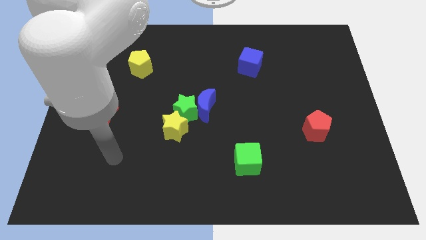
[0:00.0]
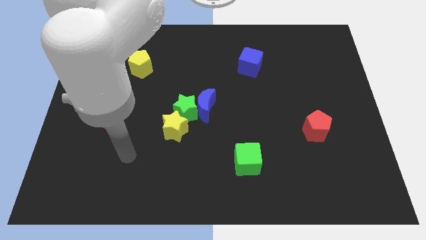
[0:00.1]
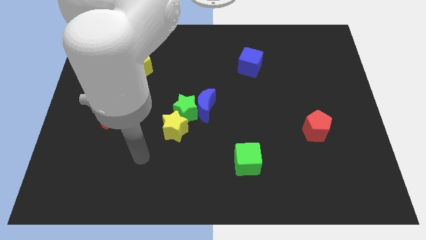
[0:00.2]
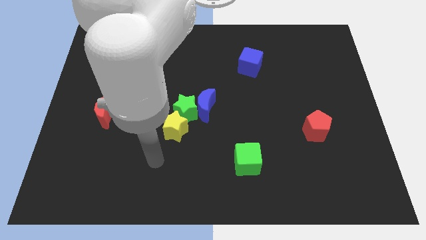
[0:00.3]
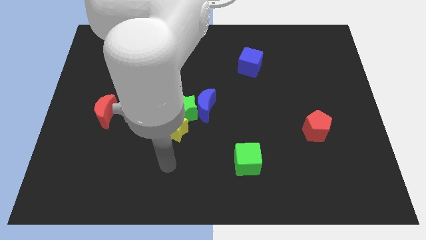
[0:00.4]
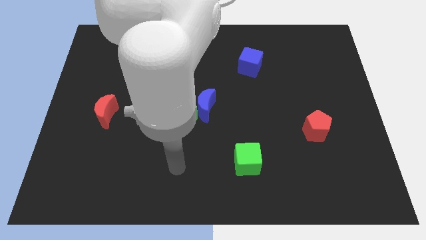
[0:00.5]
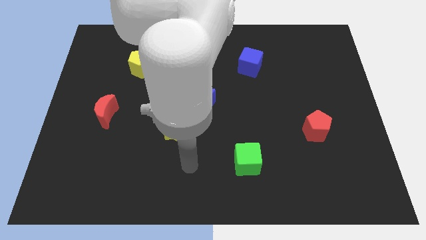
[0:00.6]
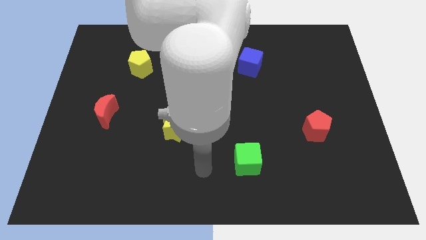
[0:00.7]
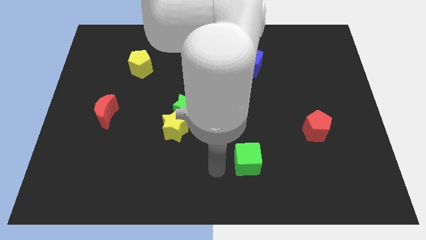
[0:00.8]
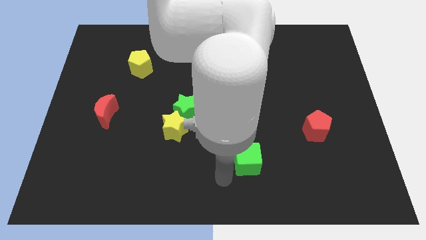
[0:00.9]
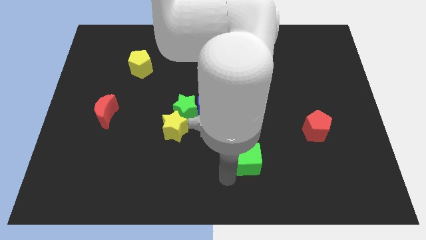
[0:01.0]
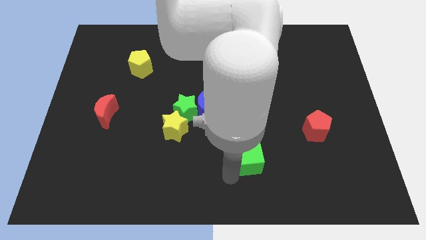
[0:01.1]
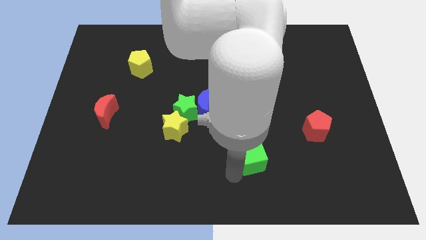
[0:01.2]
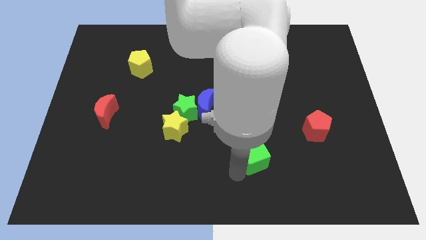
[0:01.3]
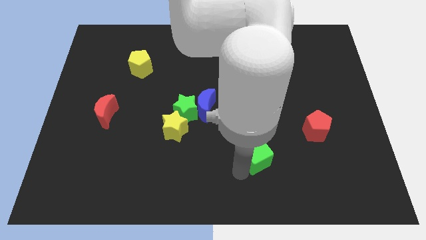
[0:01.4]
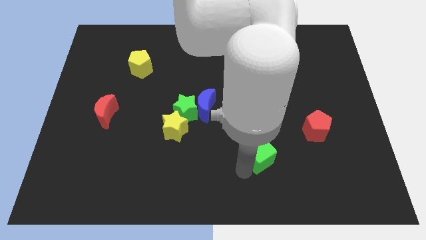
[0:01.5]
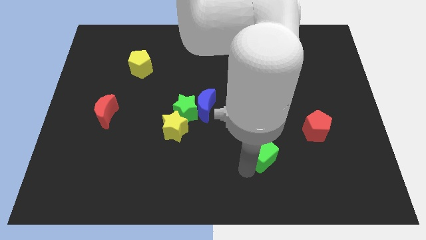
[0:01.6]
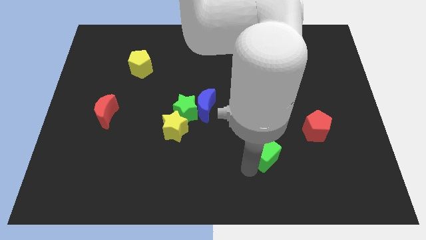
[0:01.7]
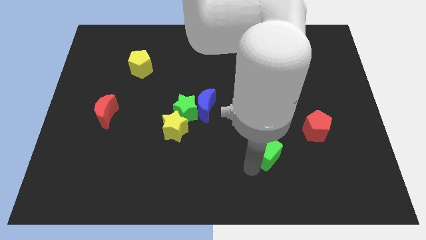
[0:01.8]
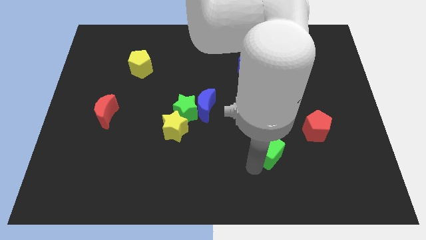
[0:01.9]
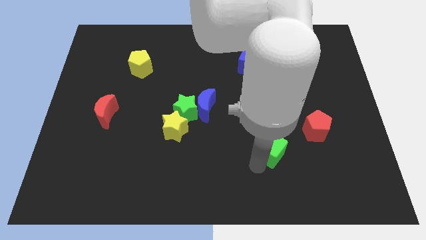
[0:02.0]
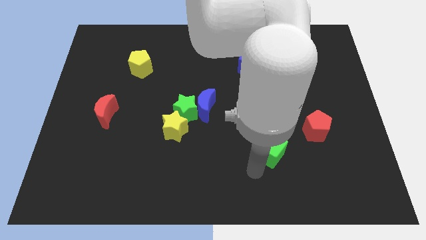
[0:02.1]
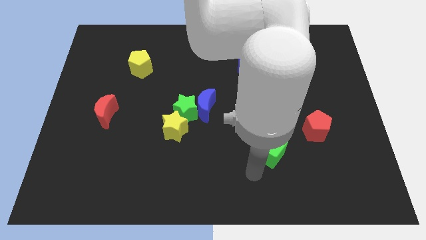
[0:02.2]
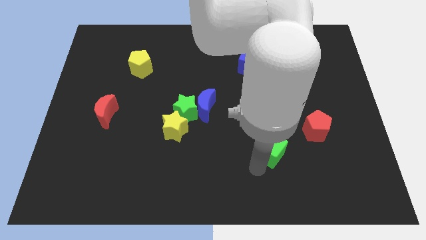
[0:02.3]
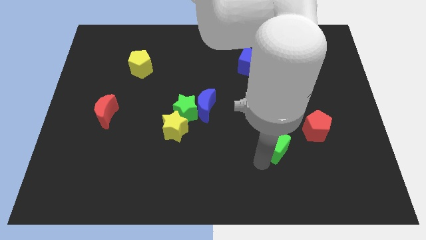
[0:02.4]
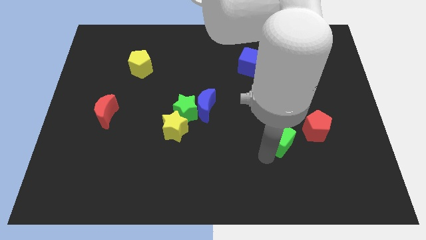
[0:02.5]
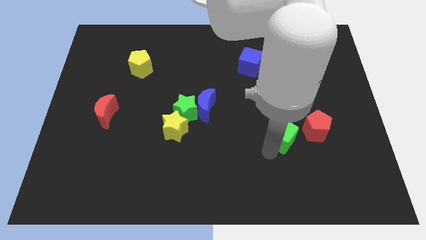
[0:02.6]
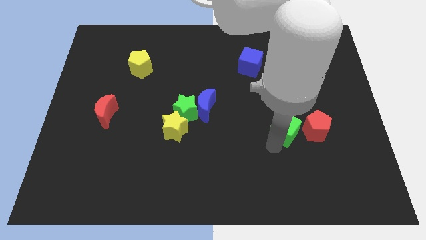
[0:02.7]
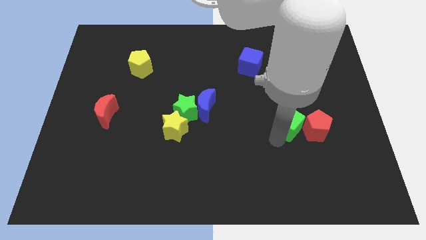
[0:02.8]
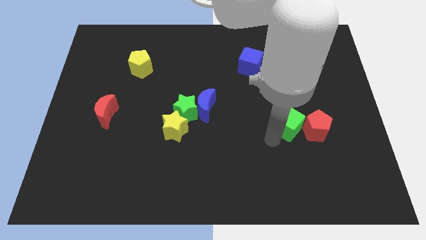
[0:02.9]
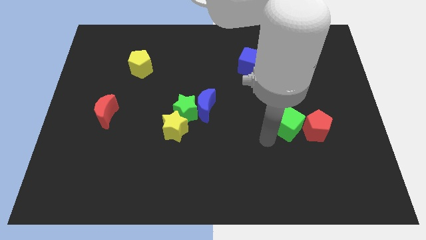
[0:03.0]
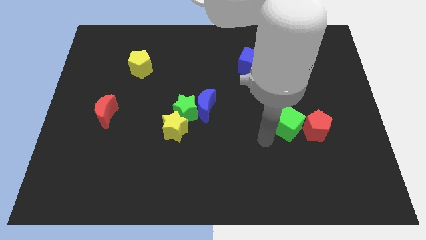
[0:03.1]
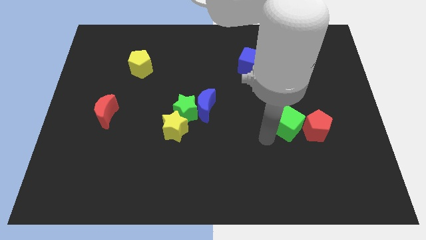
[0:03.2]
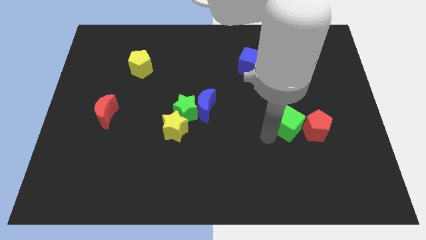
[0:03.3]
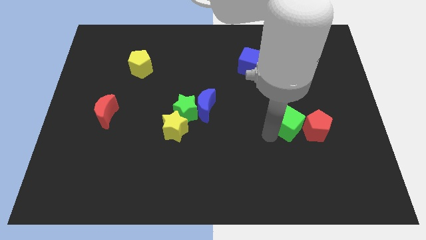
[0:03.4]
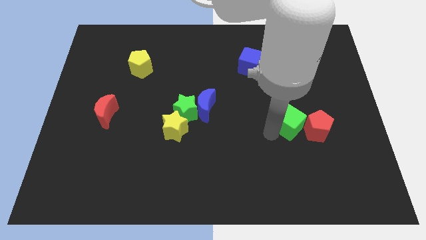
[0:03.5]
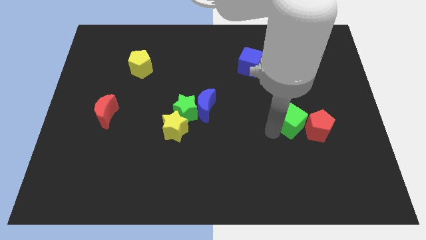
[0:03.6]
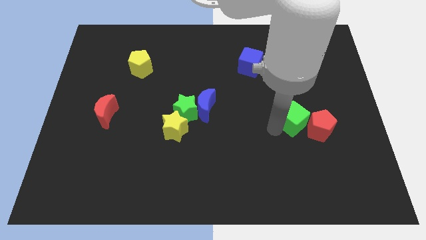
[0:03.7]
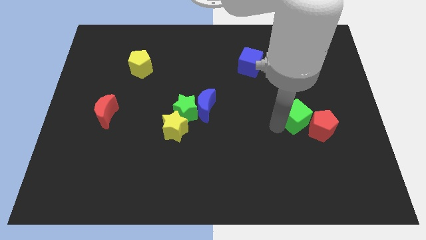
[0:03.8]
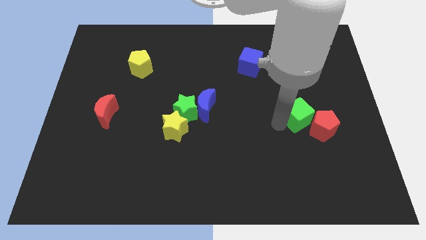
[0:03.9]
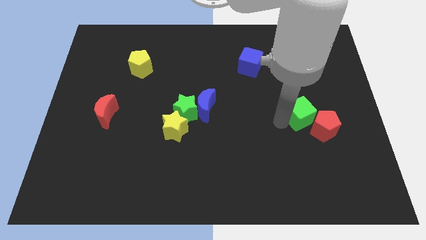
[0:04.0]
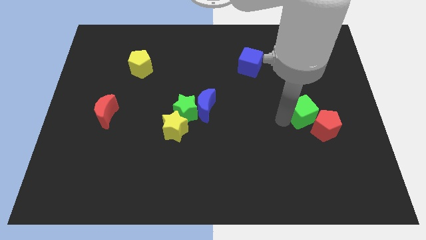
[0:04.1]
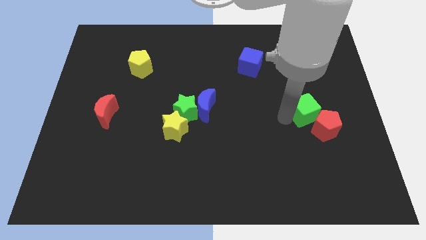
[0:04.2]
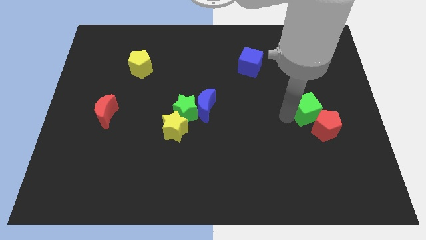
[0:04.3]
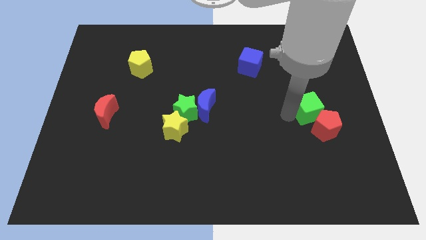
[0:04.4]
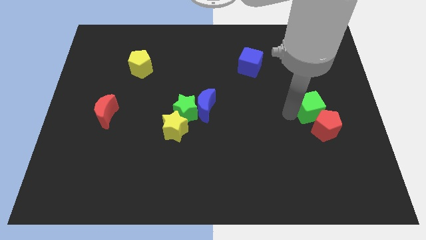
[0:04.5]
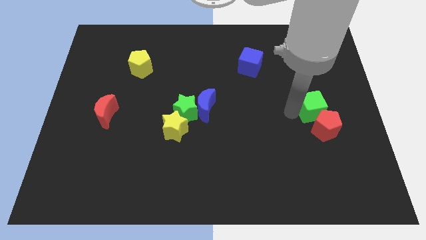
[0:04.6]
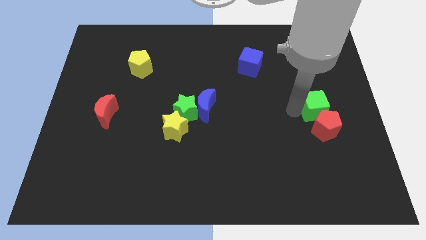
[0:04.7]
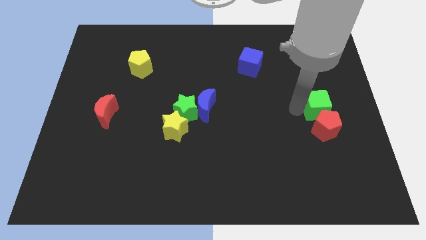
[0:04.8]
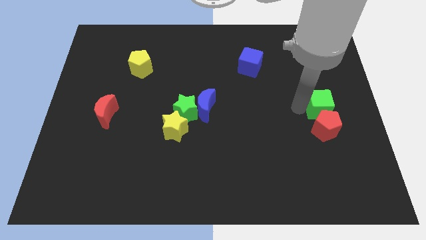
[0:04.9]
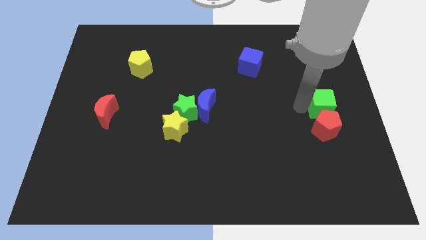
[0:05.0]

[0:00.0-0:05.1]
move the green cube to the right side

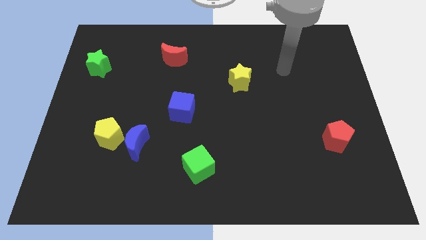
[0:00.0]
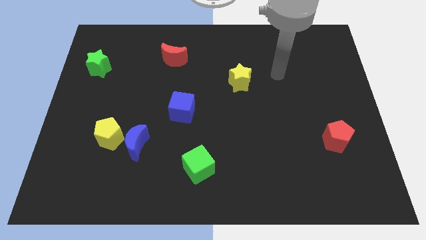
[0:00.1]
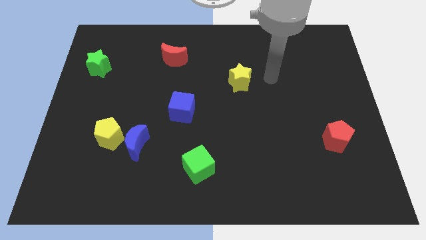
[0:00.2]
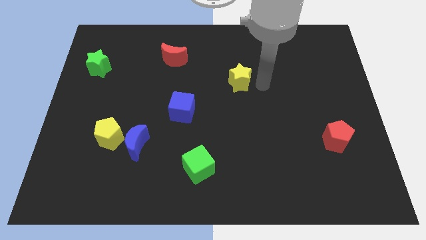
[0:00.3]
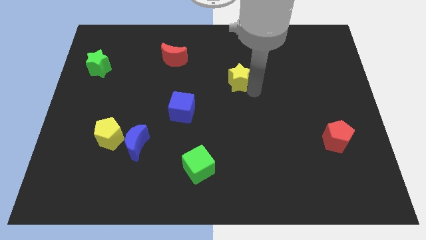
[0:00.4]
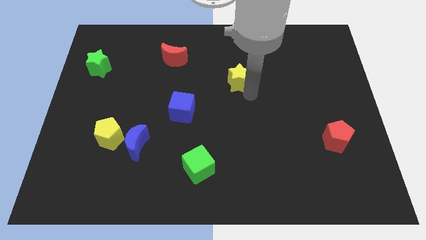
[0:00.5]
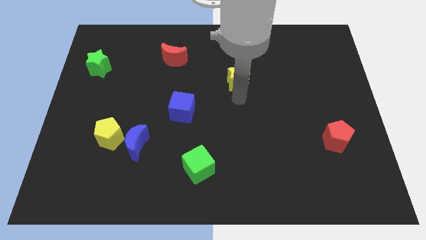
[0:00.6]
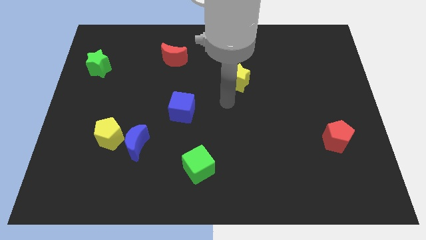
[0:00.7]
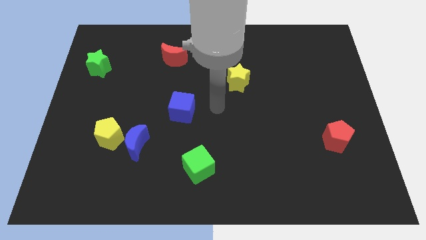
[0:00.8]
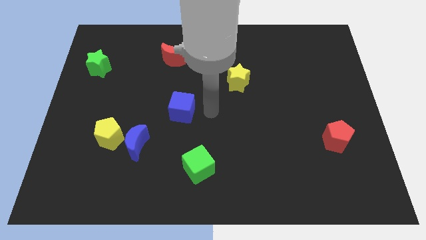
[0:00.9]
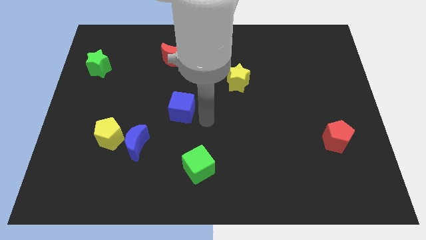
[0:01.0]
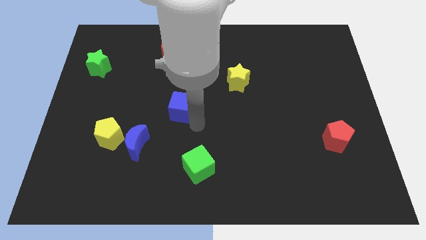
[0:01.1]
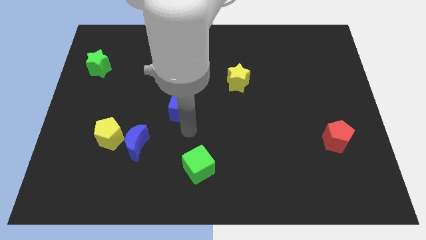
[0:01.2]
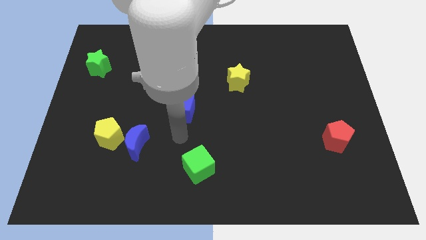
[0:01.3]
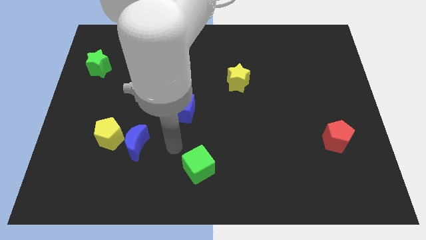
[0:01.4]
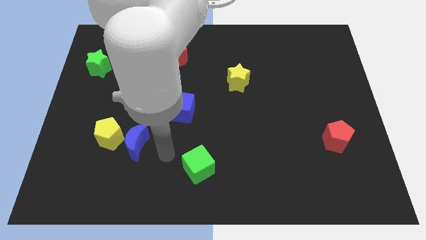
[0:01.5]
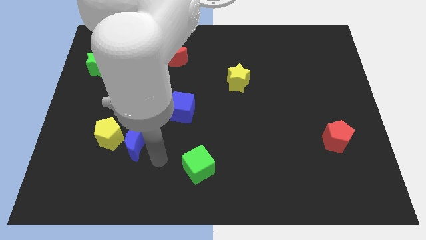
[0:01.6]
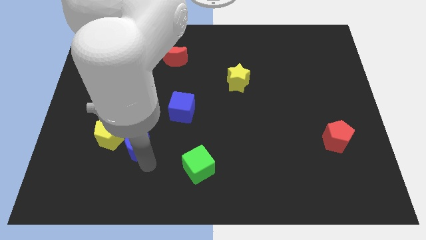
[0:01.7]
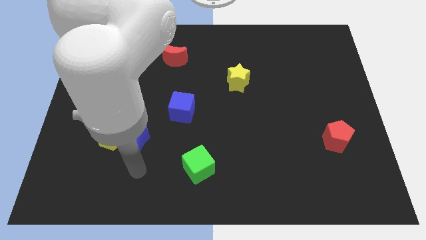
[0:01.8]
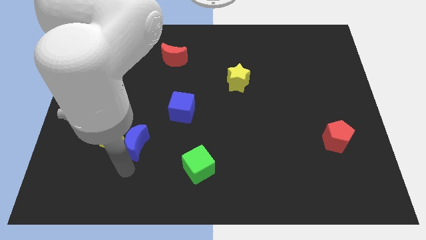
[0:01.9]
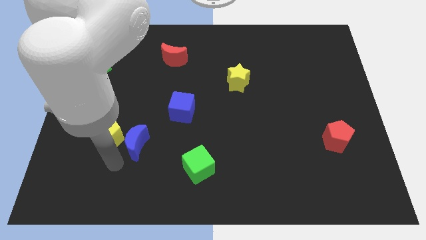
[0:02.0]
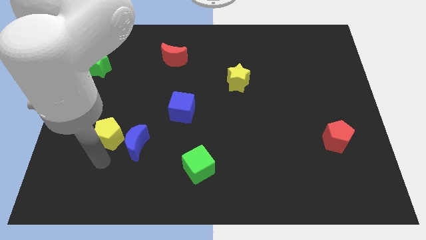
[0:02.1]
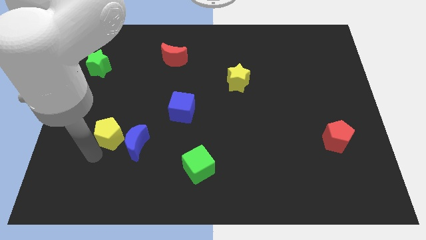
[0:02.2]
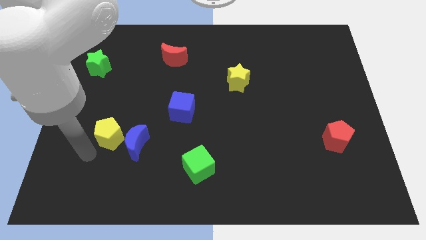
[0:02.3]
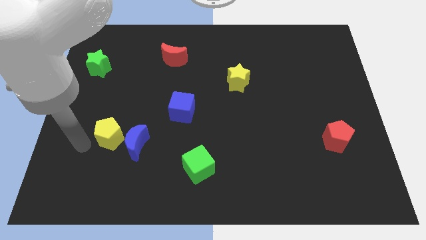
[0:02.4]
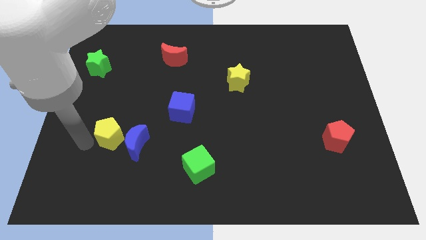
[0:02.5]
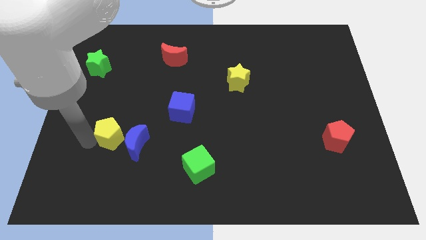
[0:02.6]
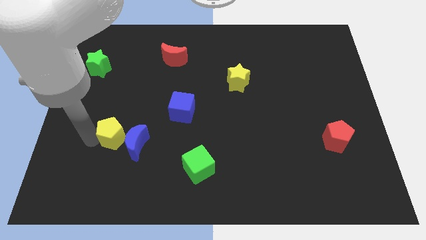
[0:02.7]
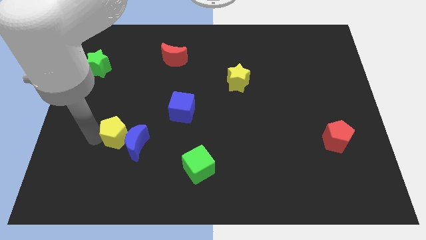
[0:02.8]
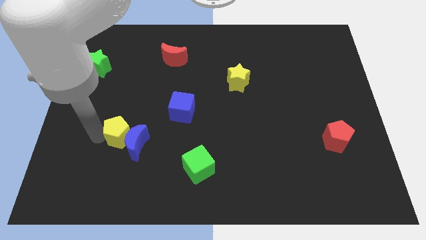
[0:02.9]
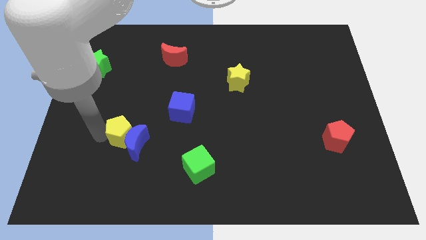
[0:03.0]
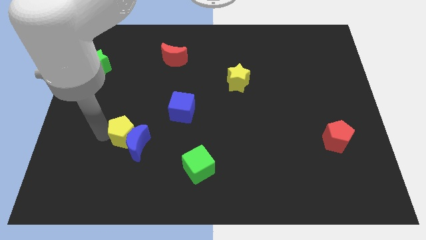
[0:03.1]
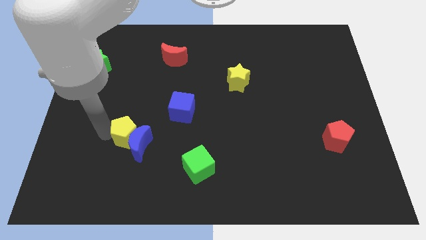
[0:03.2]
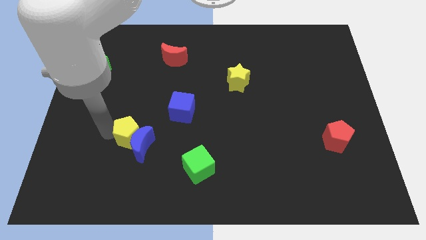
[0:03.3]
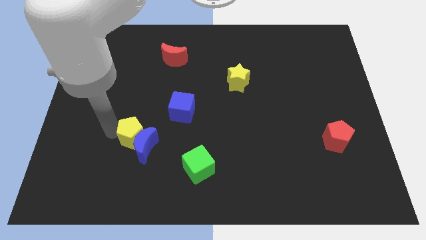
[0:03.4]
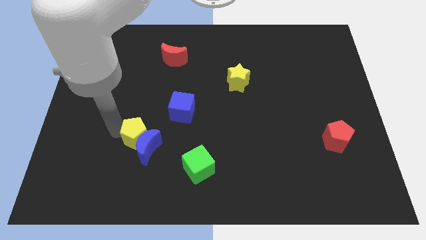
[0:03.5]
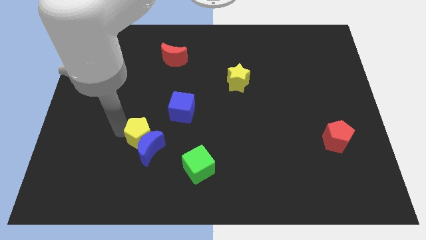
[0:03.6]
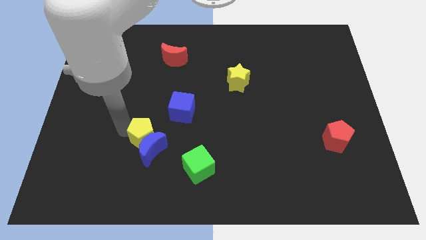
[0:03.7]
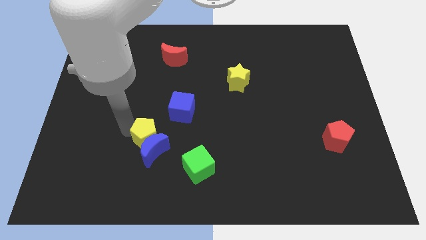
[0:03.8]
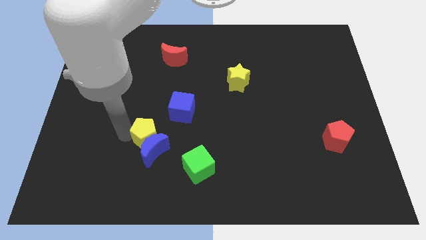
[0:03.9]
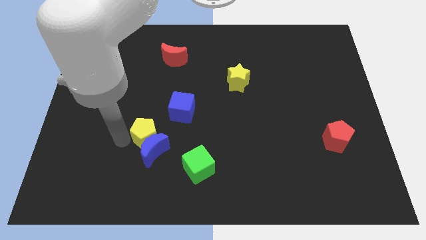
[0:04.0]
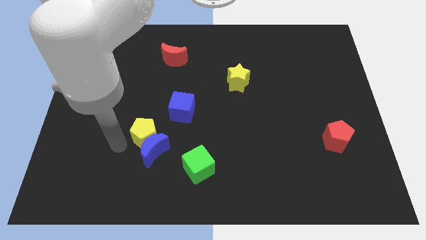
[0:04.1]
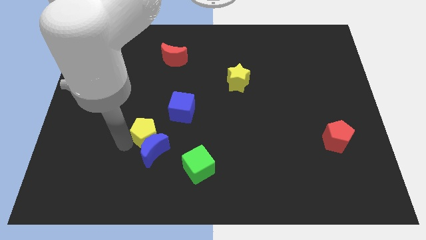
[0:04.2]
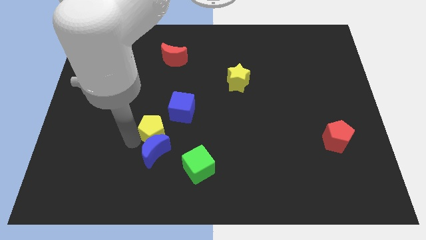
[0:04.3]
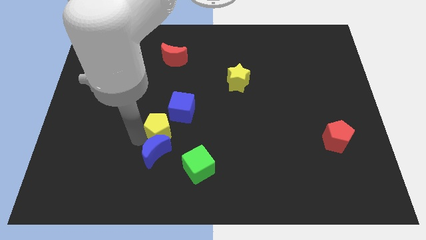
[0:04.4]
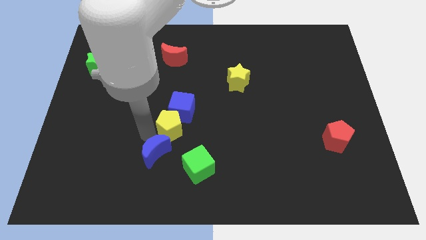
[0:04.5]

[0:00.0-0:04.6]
put the yellow pentagon to the center of the board
